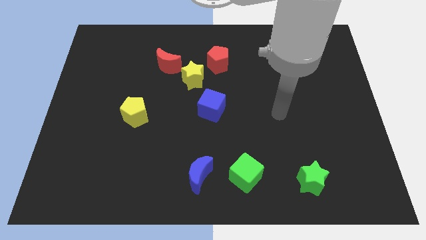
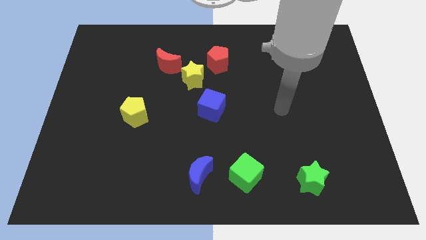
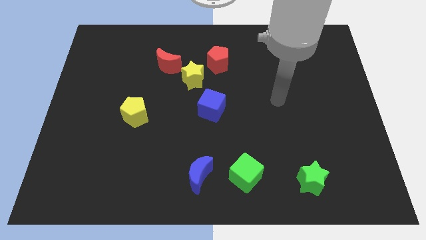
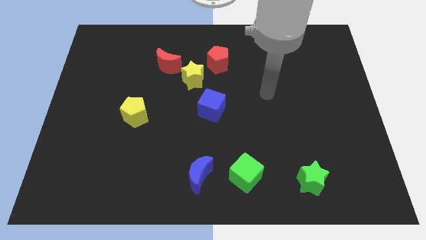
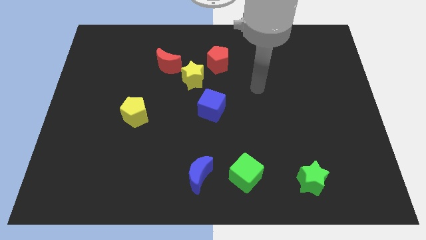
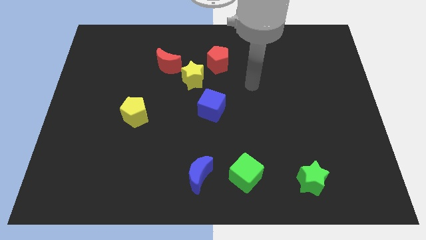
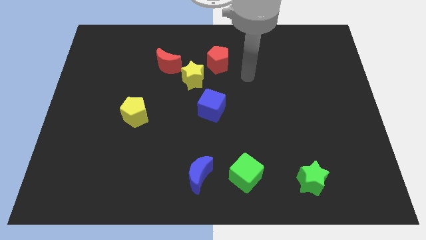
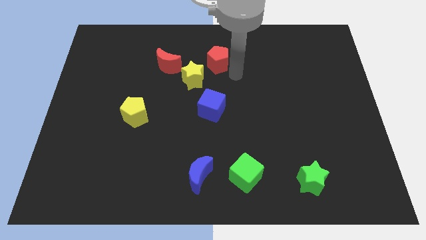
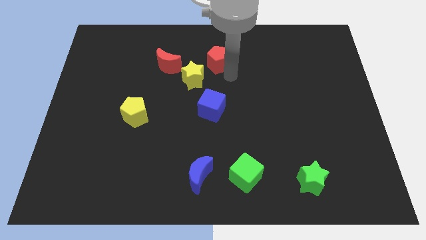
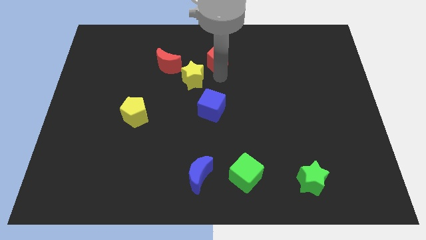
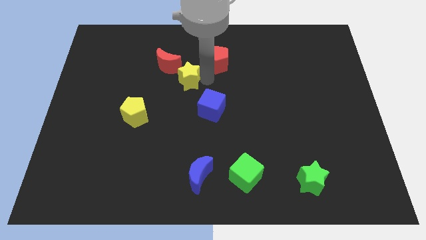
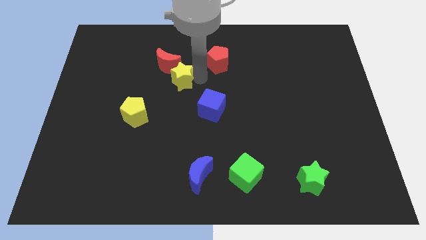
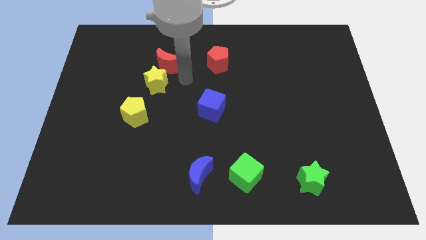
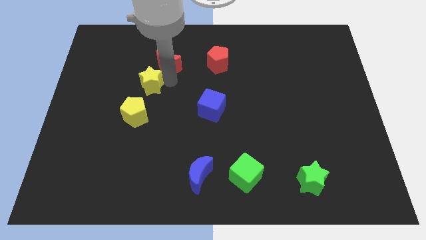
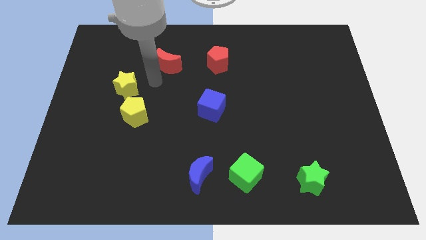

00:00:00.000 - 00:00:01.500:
pull the red moon apart from the yellow star

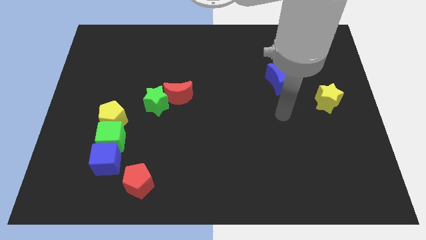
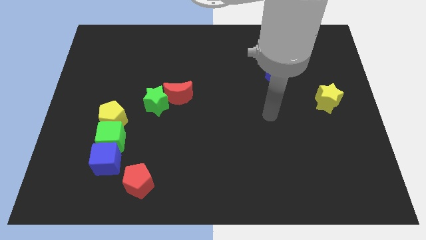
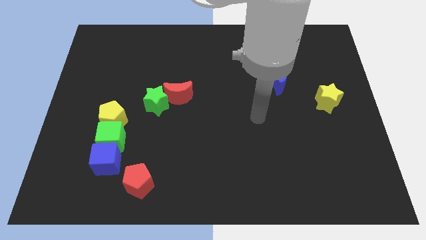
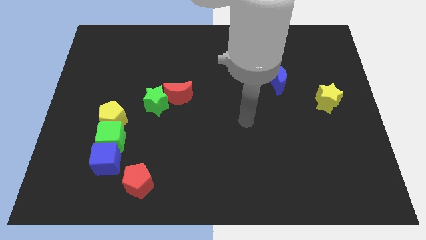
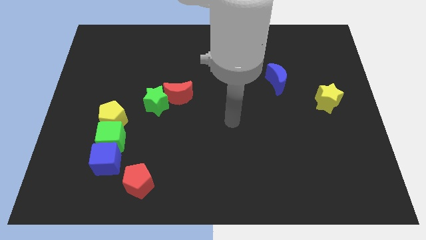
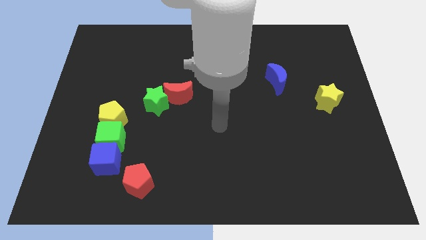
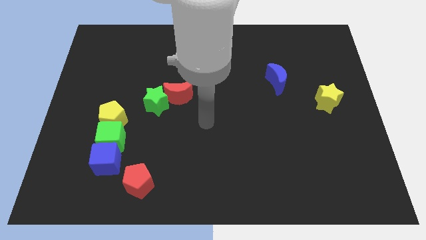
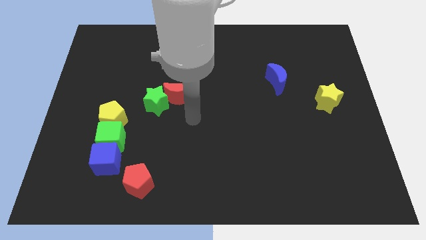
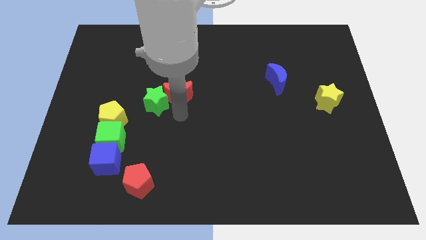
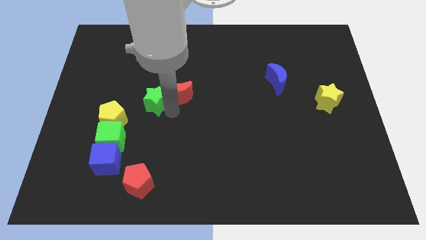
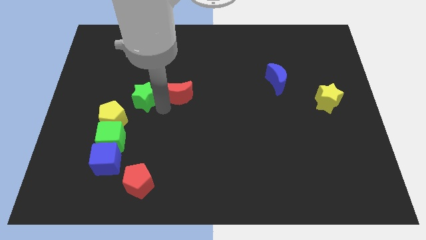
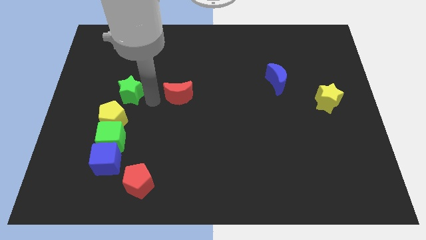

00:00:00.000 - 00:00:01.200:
move the red moon away from the green star

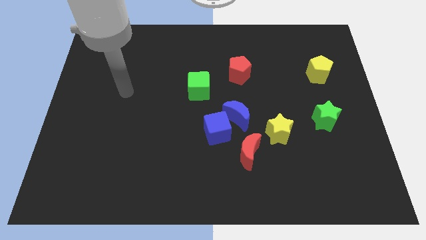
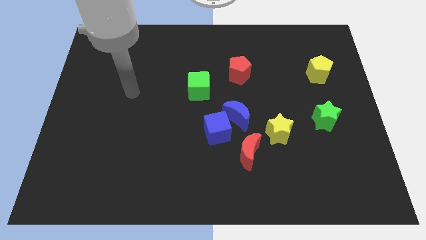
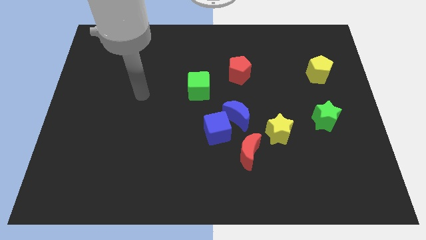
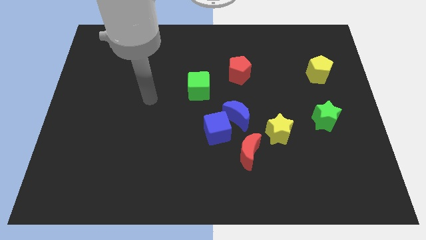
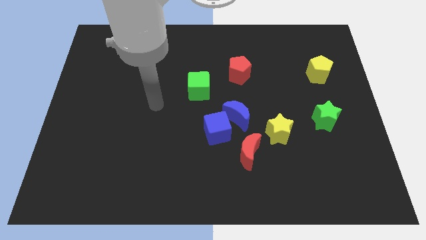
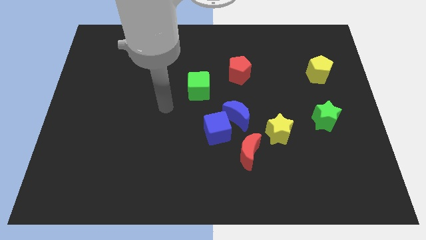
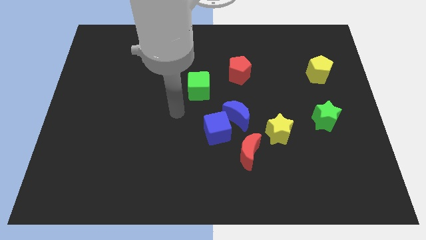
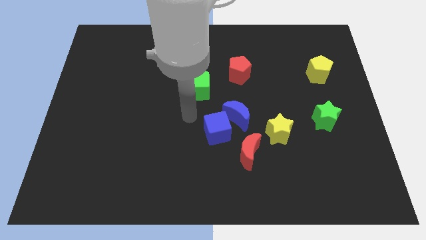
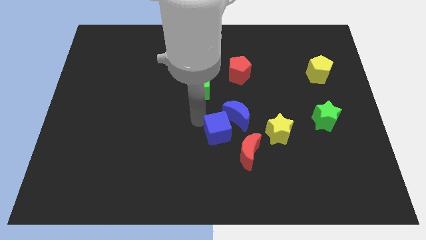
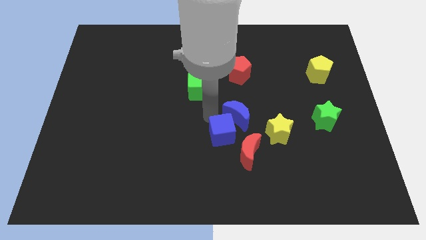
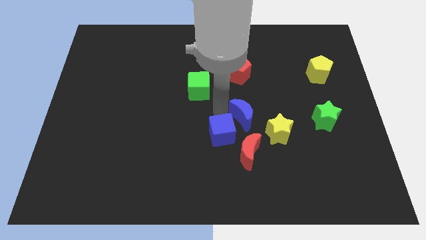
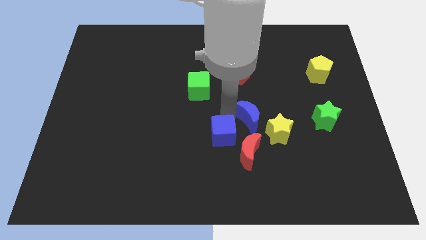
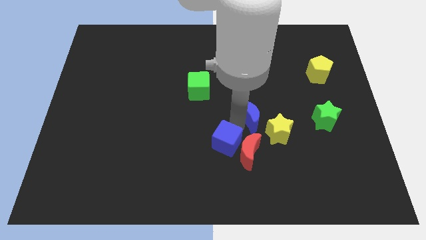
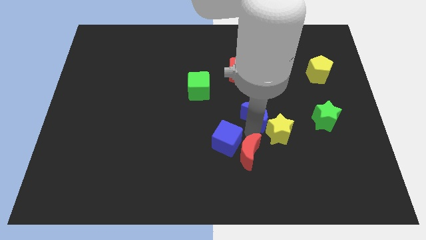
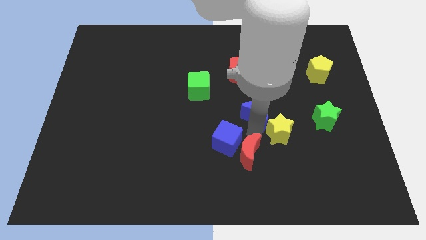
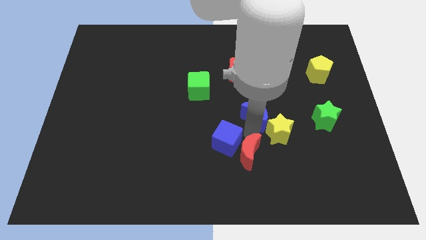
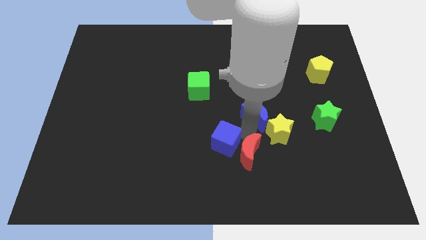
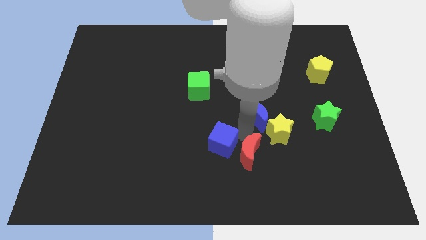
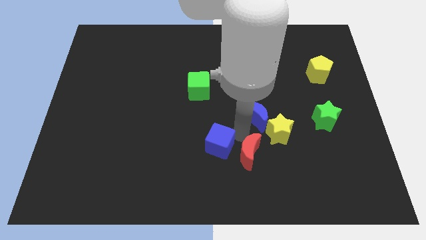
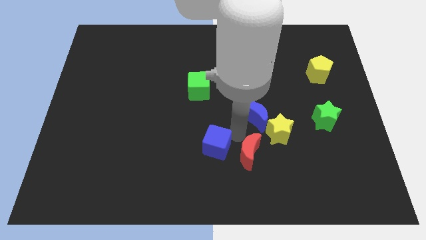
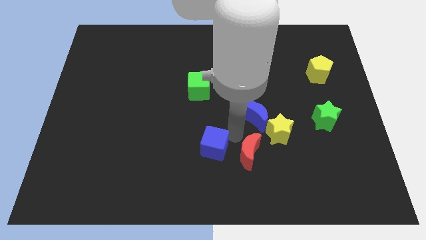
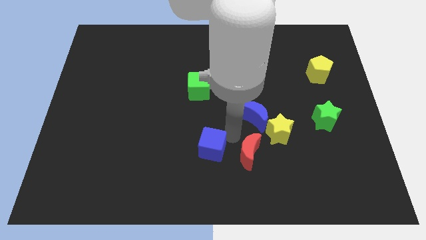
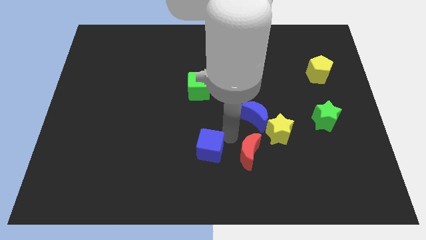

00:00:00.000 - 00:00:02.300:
move the blue cube away from the blue moon and red moon

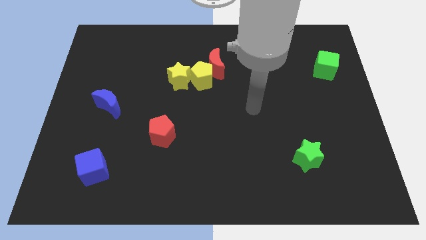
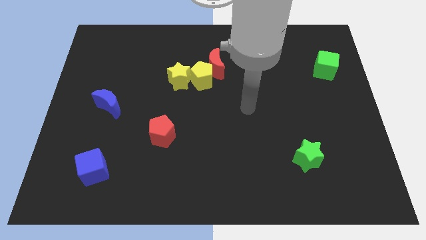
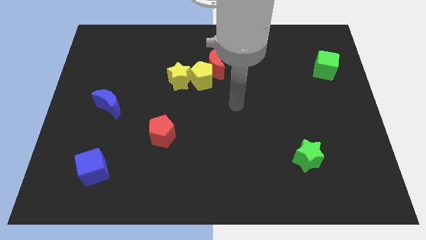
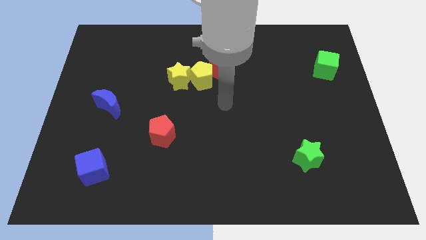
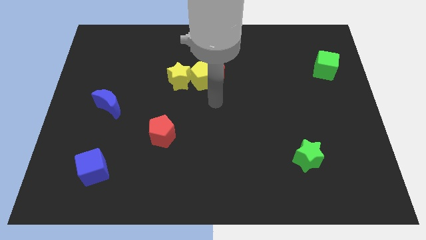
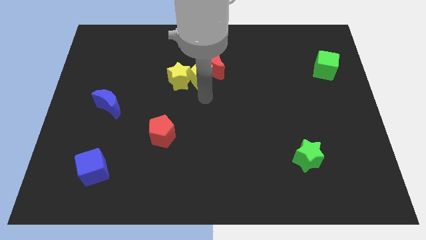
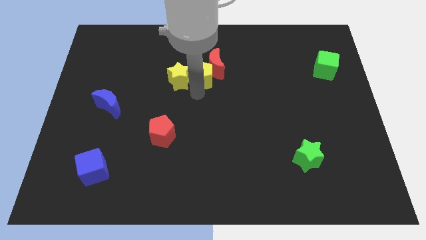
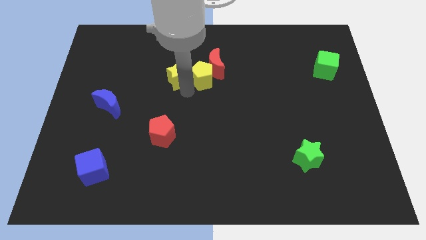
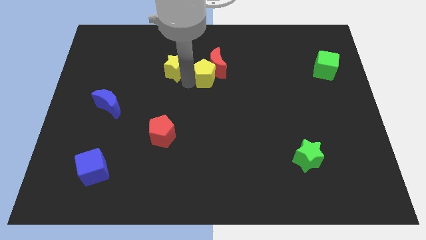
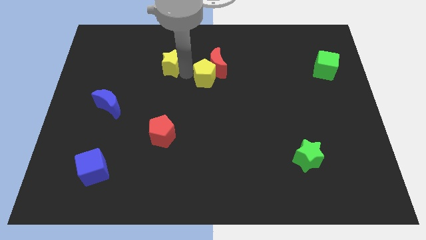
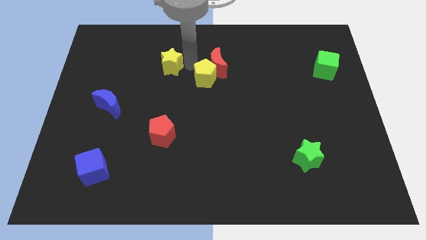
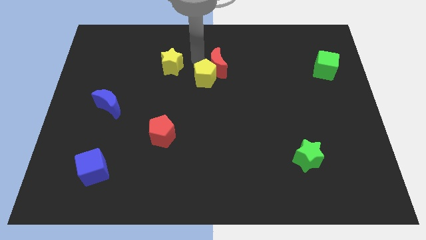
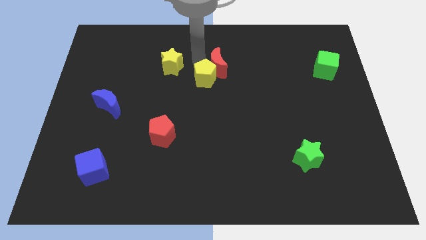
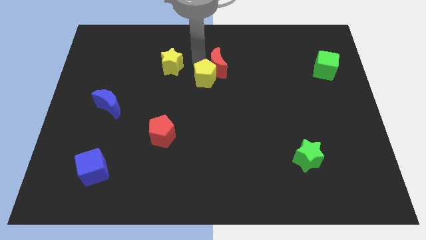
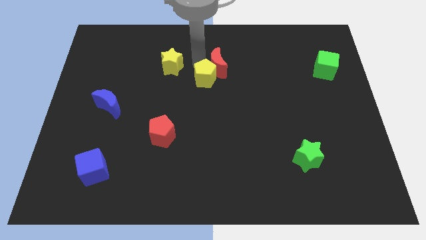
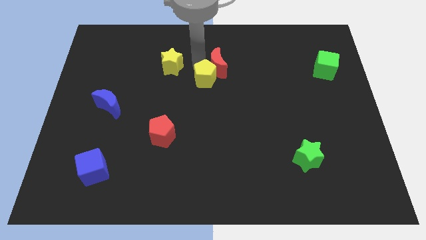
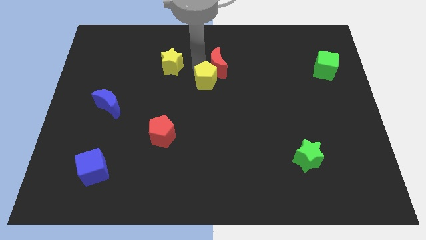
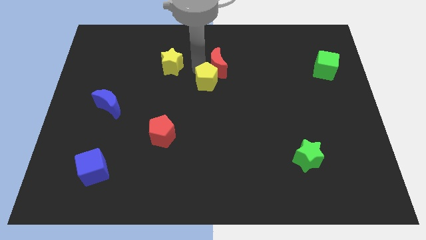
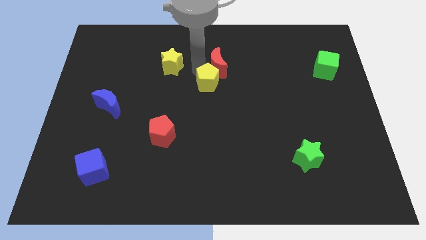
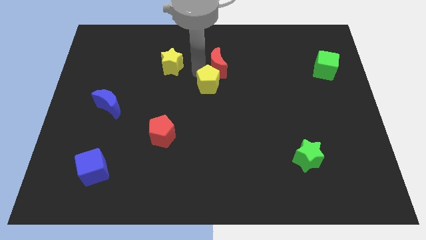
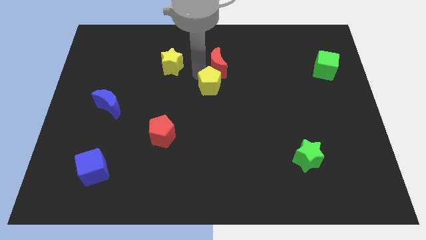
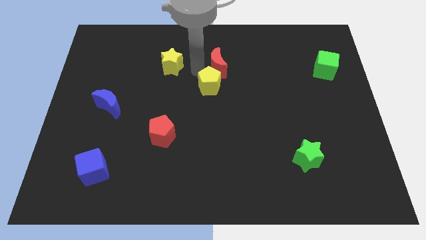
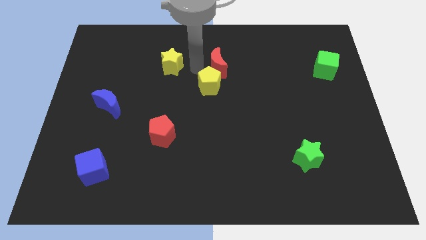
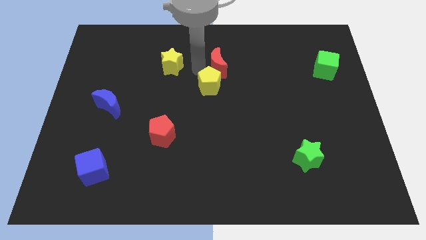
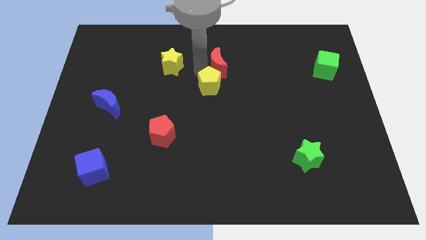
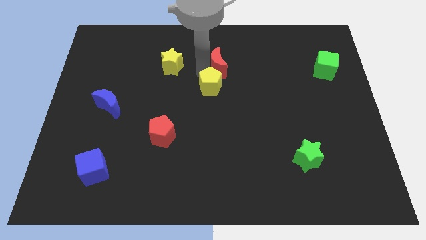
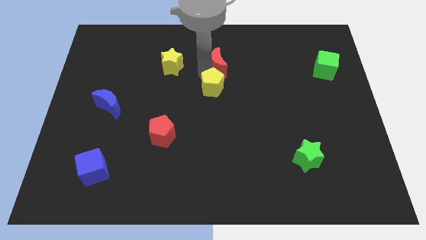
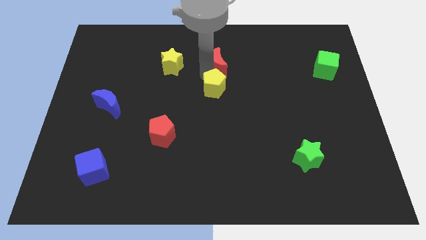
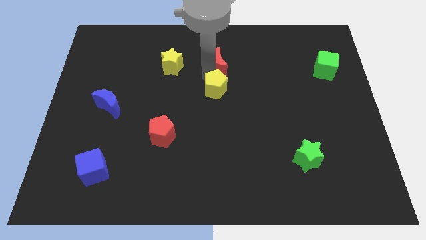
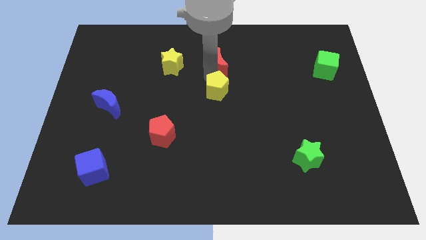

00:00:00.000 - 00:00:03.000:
pull the yellow pentagon apart from the red moon and yellow star

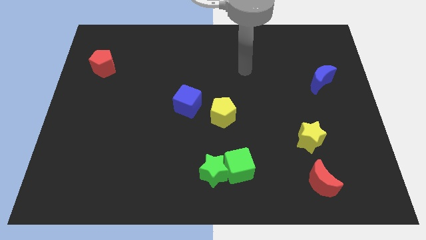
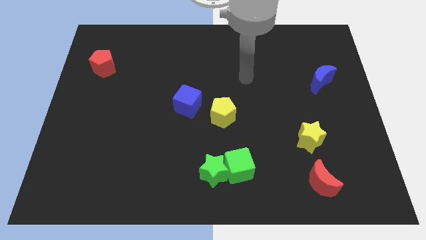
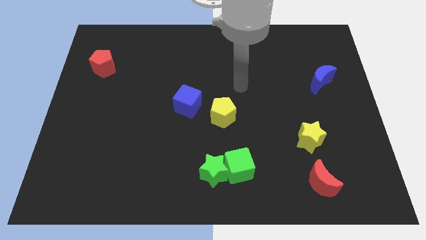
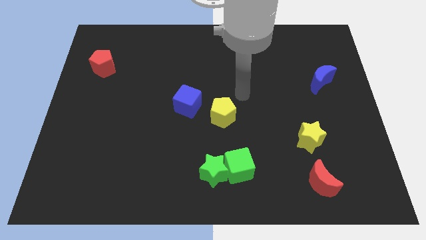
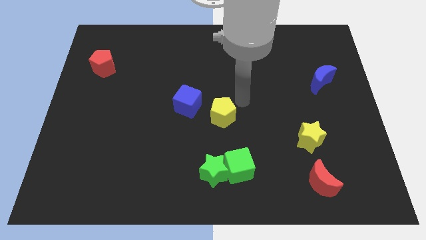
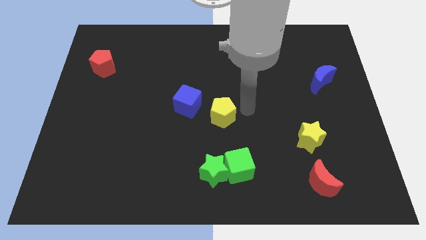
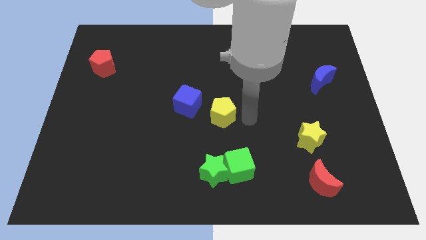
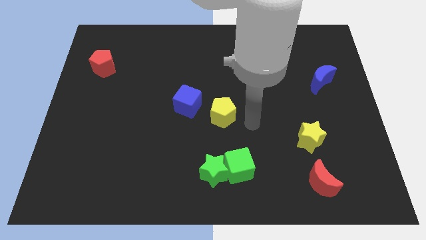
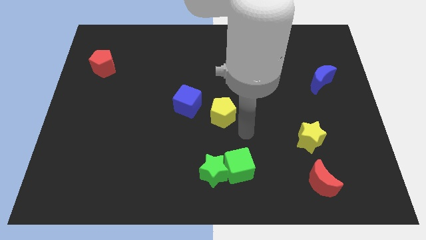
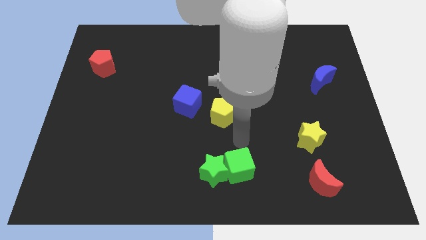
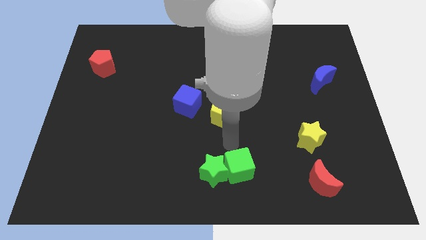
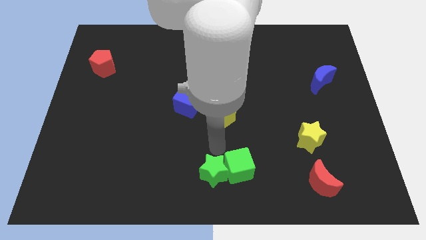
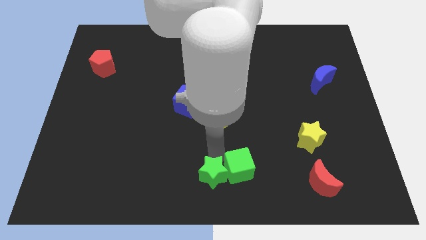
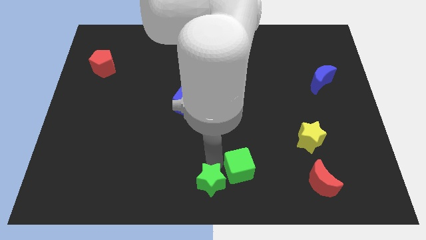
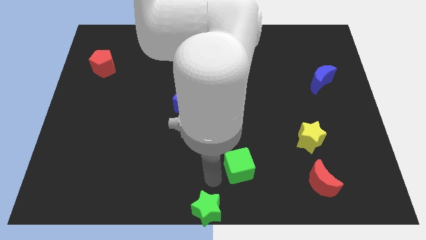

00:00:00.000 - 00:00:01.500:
pull the green cube apart from the green star
